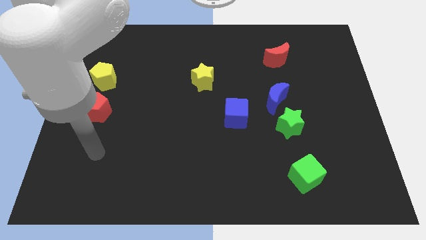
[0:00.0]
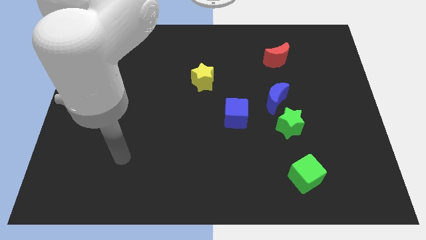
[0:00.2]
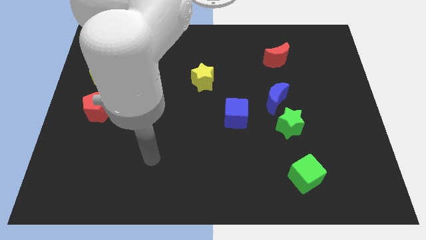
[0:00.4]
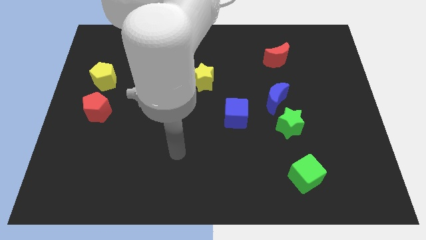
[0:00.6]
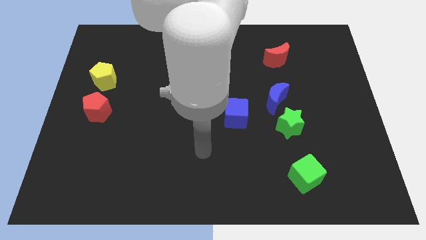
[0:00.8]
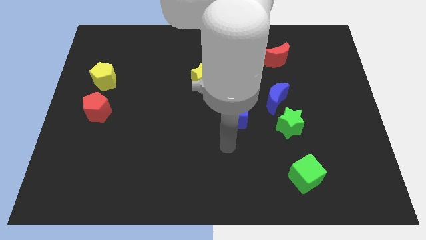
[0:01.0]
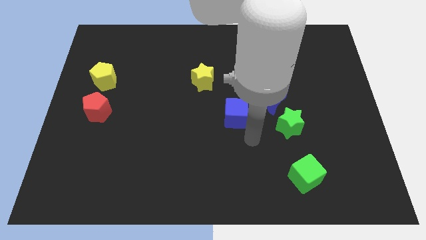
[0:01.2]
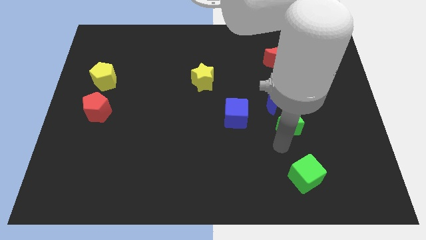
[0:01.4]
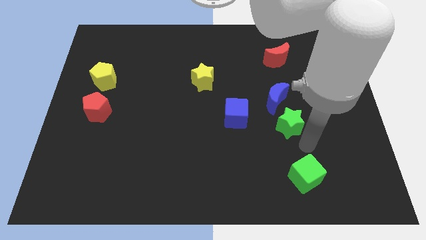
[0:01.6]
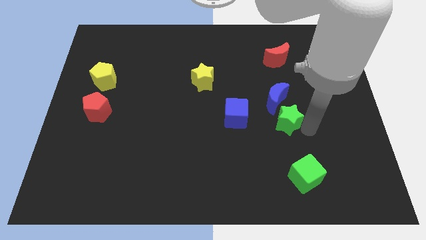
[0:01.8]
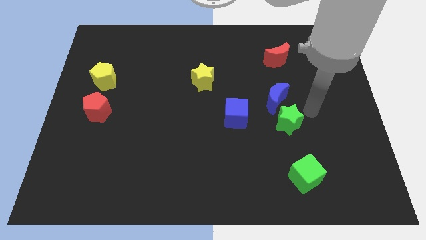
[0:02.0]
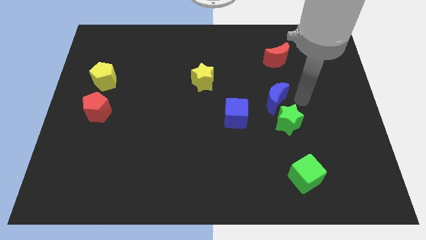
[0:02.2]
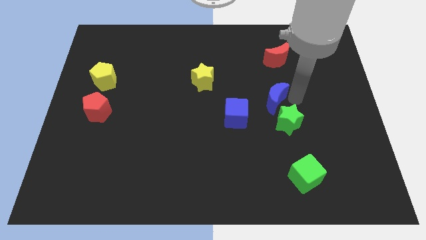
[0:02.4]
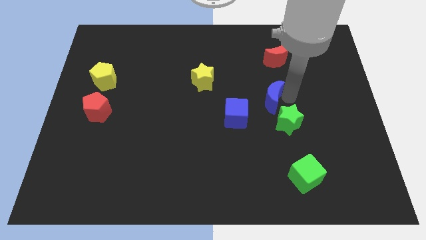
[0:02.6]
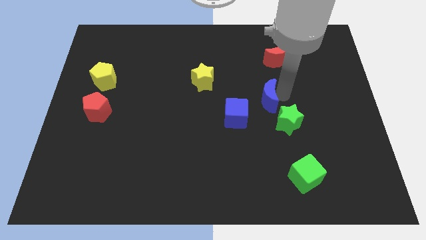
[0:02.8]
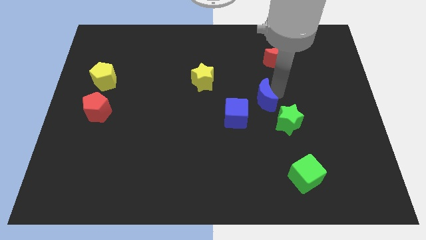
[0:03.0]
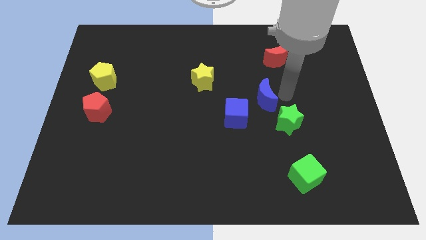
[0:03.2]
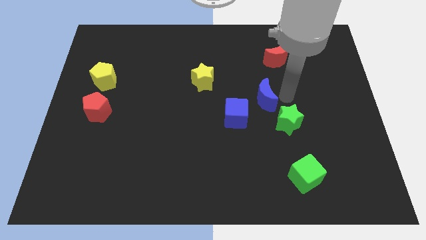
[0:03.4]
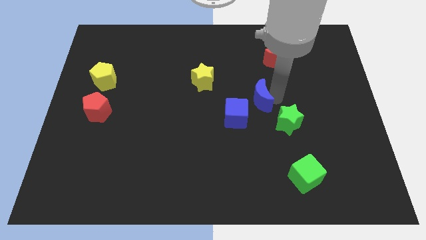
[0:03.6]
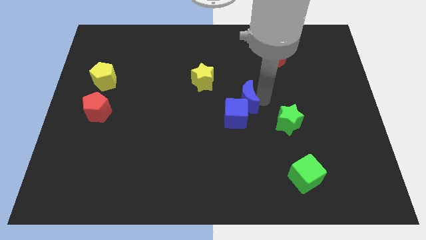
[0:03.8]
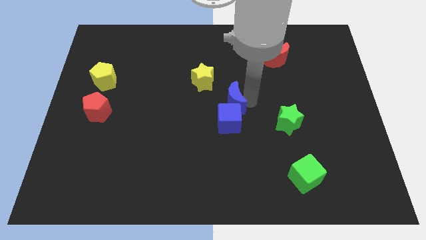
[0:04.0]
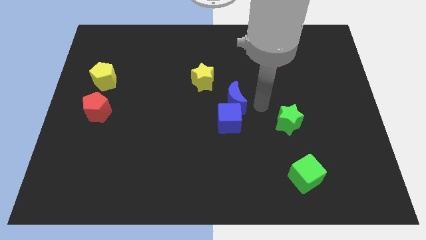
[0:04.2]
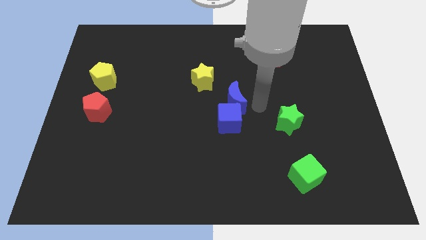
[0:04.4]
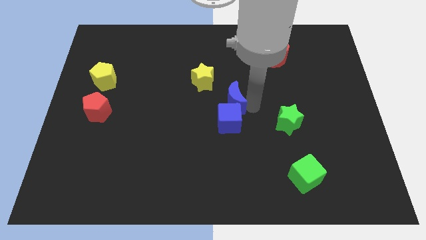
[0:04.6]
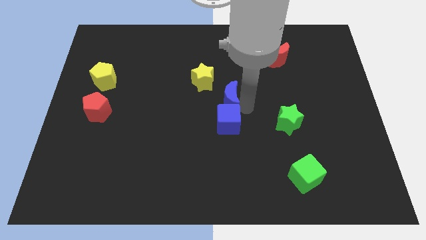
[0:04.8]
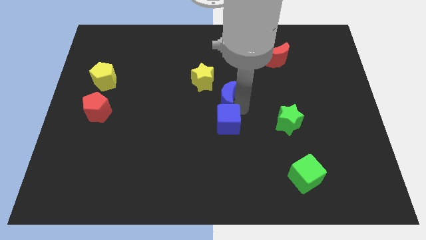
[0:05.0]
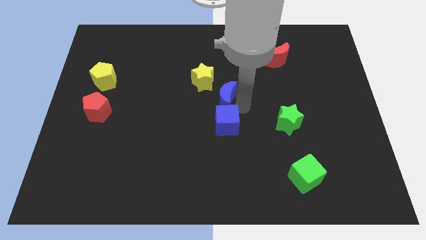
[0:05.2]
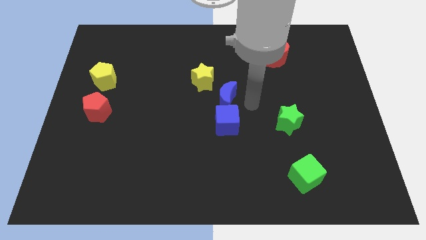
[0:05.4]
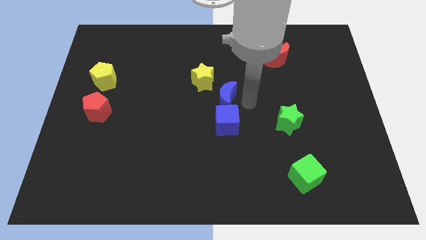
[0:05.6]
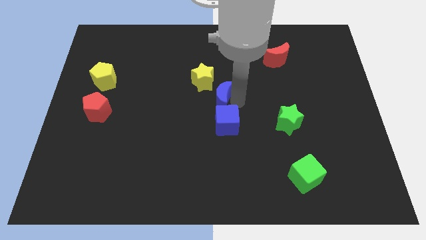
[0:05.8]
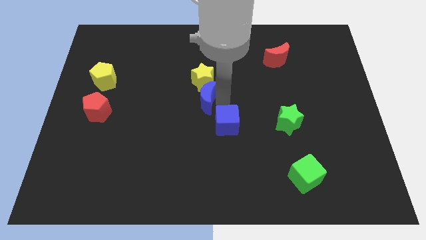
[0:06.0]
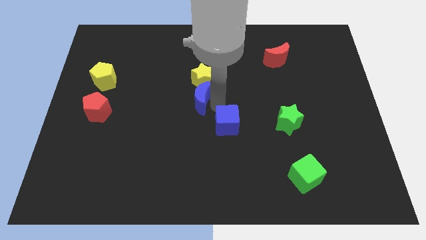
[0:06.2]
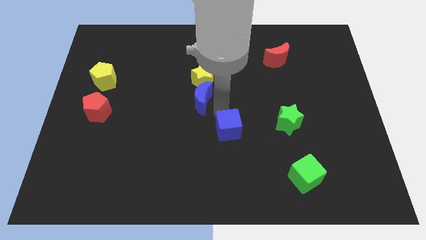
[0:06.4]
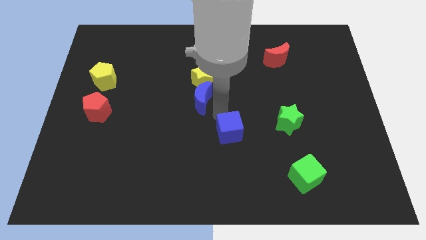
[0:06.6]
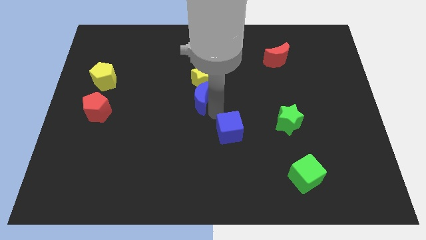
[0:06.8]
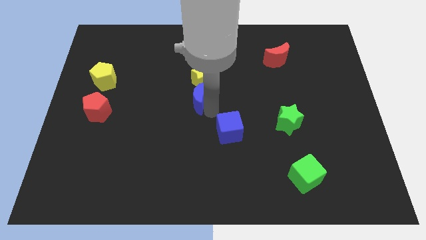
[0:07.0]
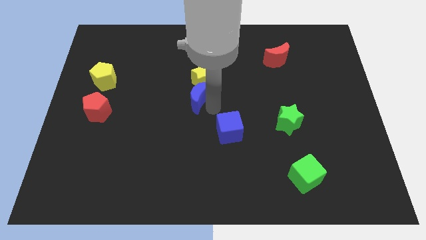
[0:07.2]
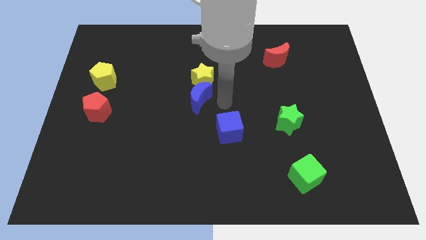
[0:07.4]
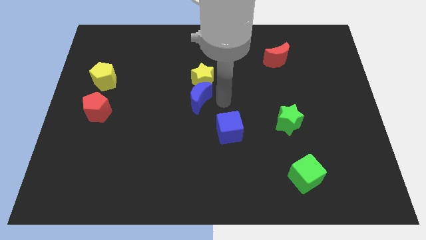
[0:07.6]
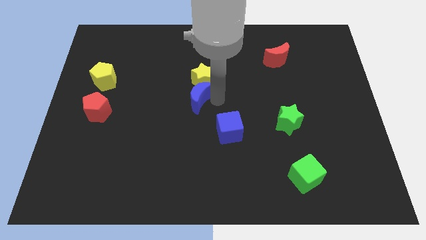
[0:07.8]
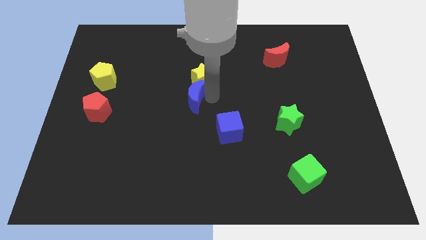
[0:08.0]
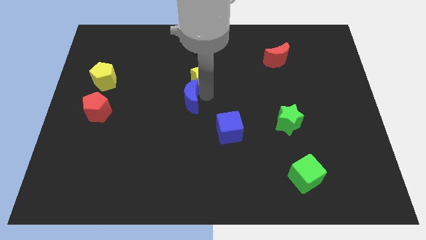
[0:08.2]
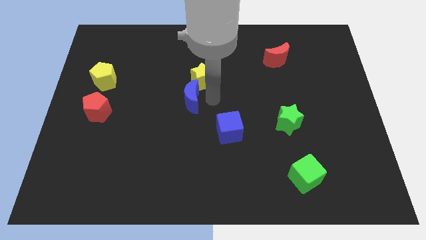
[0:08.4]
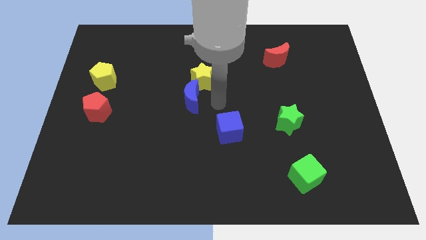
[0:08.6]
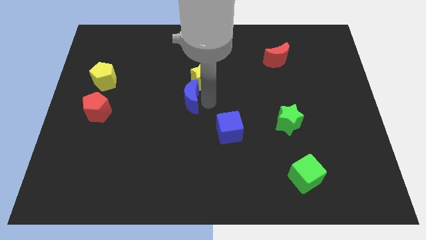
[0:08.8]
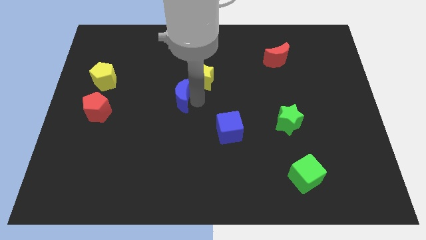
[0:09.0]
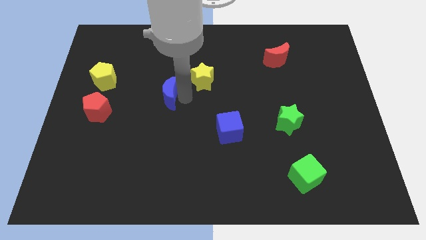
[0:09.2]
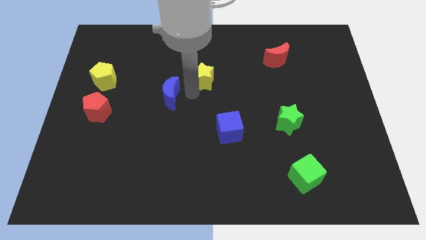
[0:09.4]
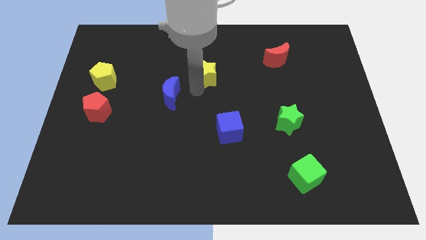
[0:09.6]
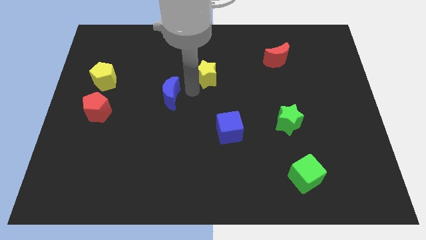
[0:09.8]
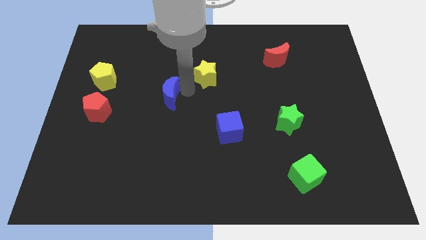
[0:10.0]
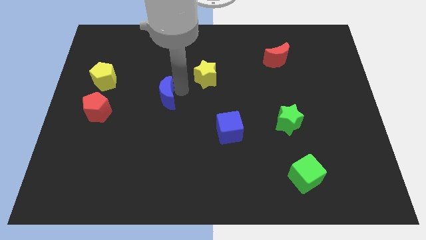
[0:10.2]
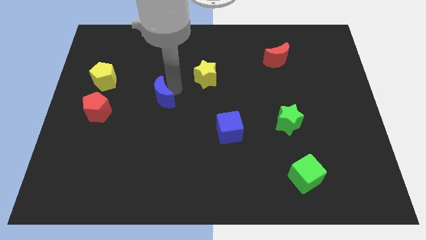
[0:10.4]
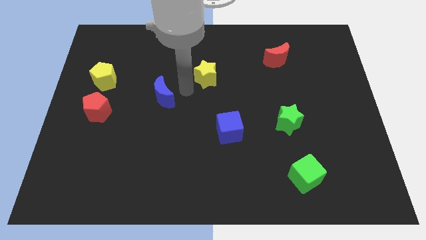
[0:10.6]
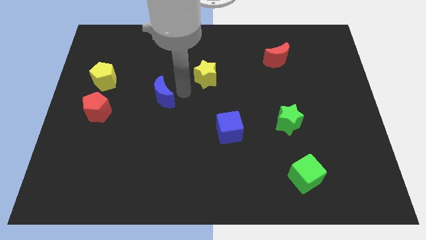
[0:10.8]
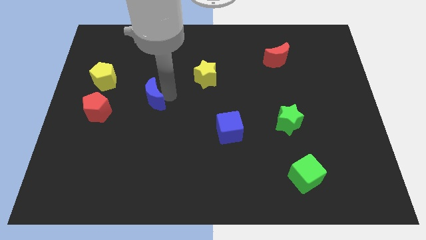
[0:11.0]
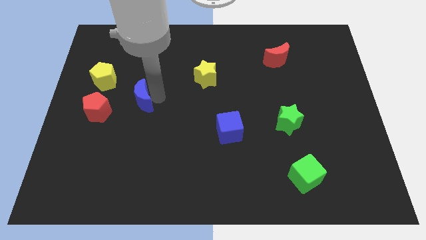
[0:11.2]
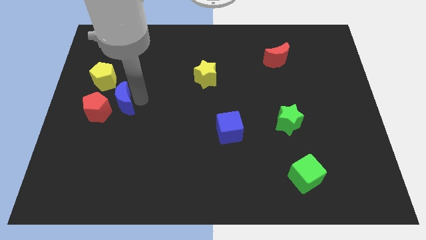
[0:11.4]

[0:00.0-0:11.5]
slide the blue moon close to the red pentagon
